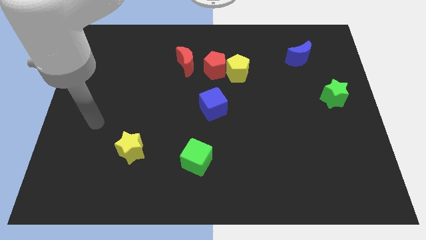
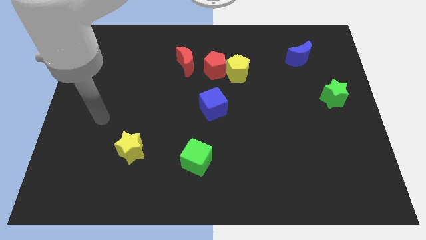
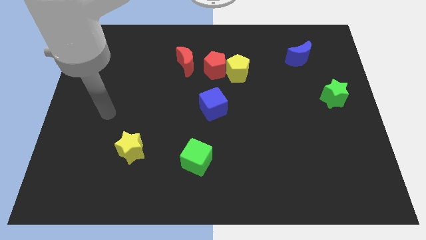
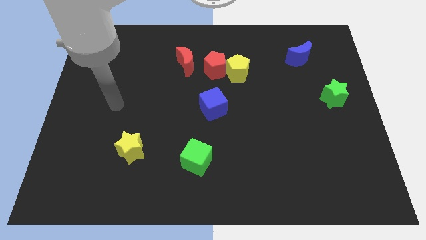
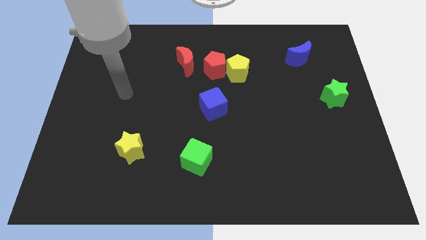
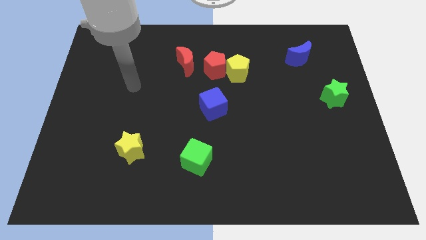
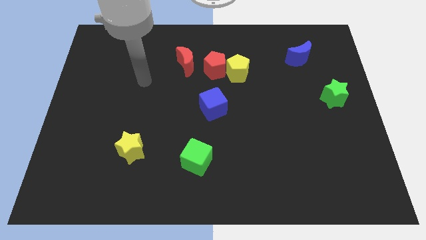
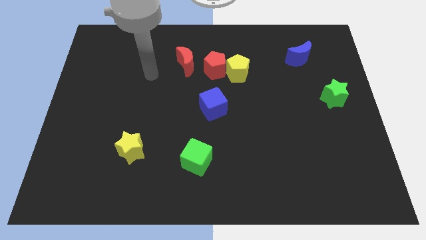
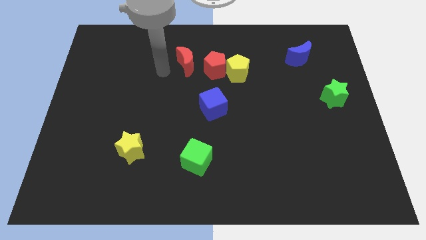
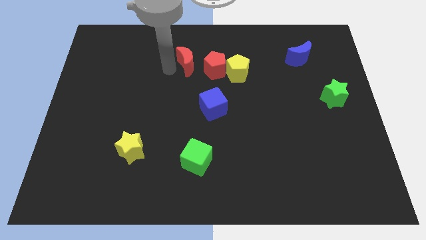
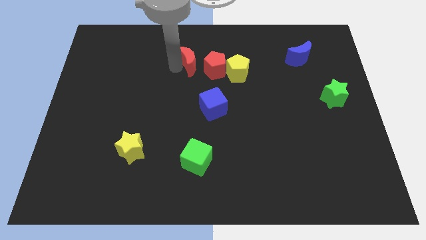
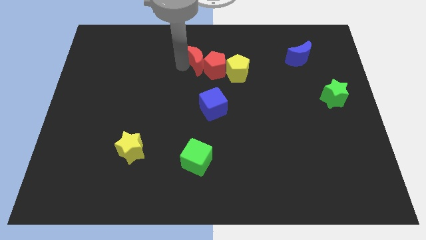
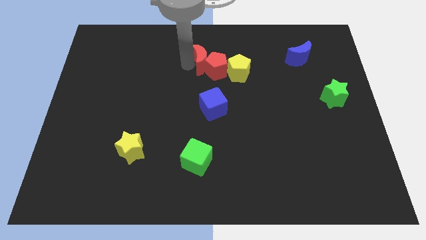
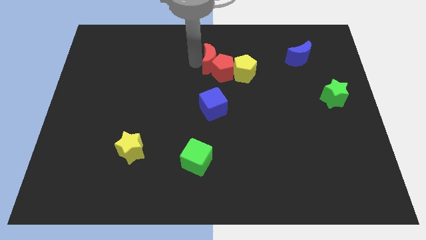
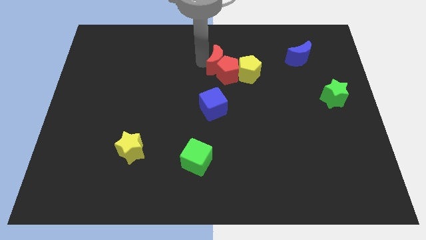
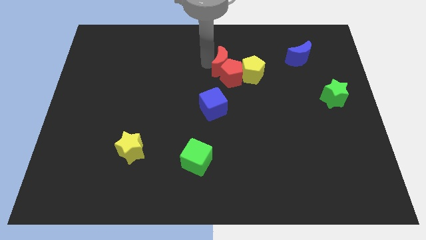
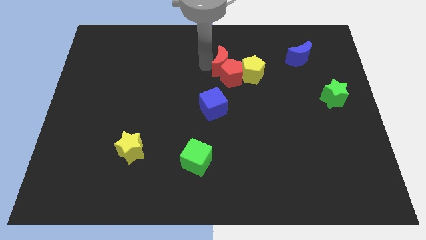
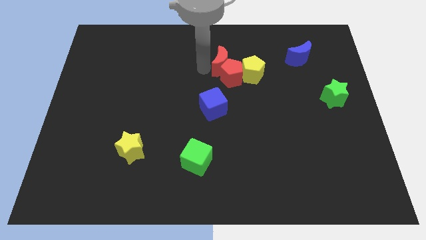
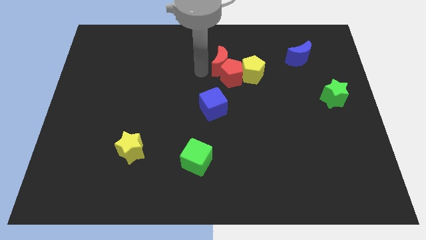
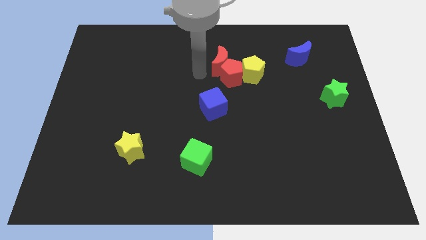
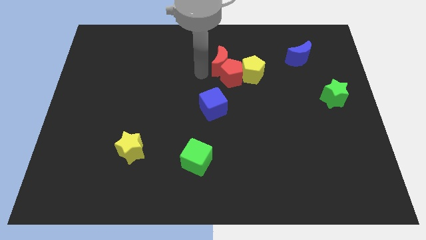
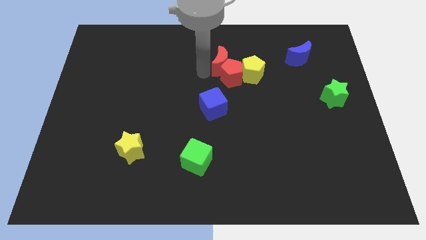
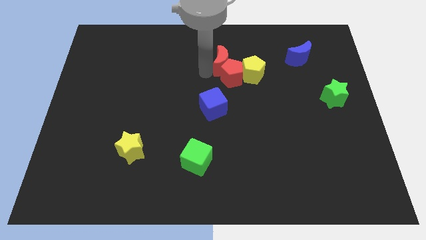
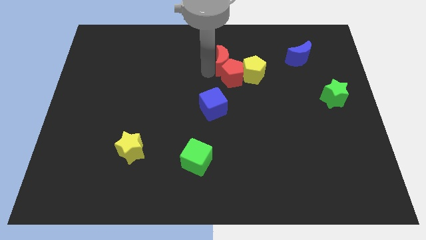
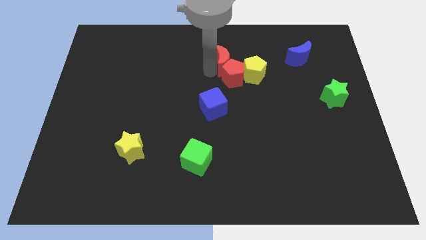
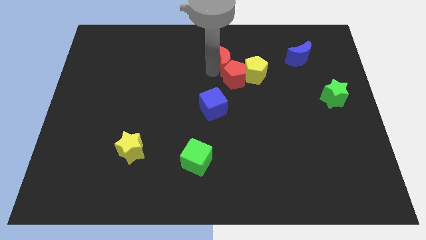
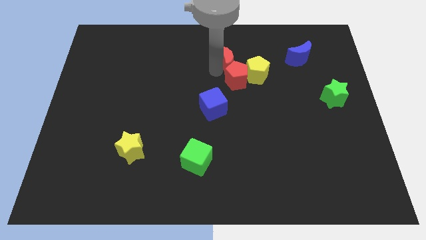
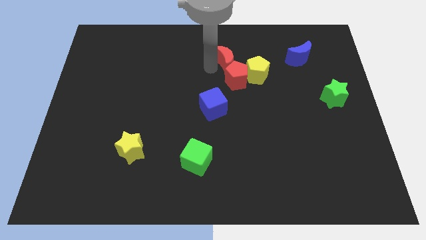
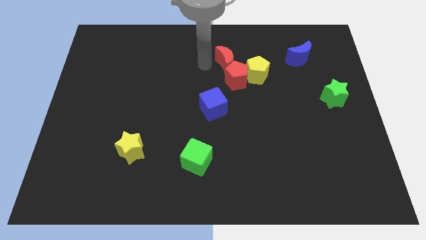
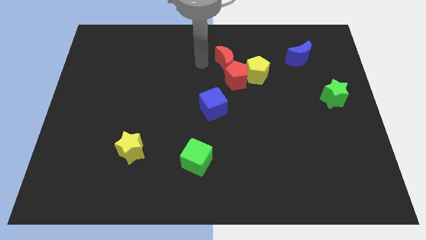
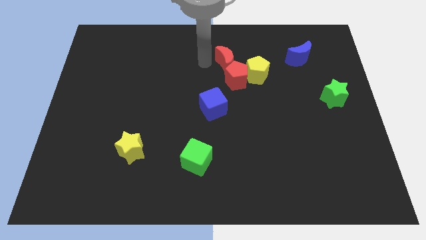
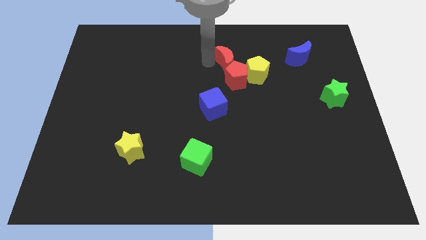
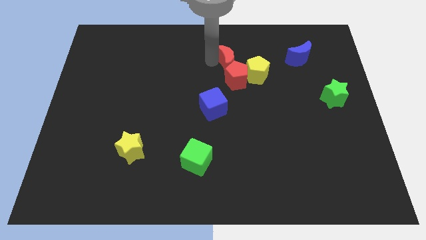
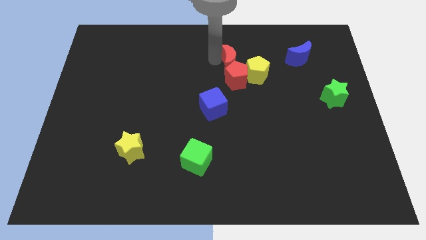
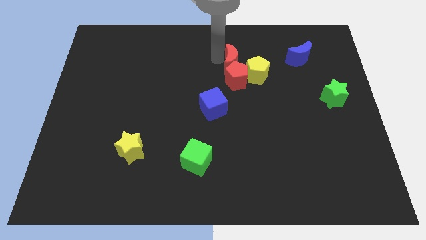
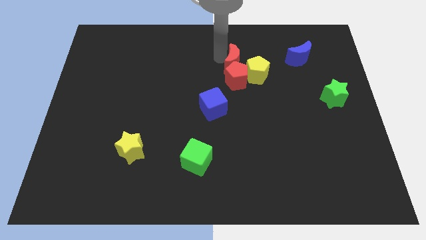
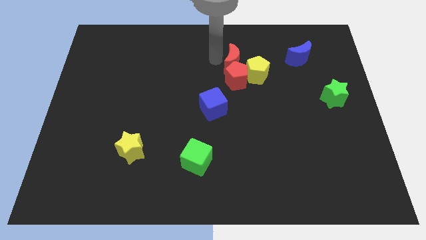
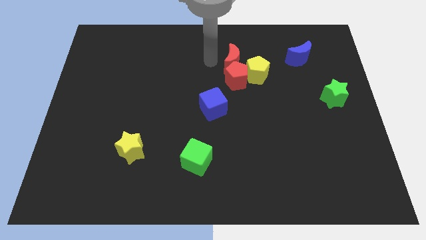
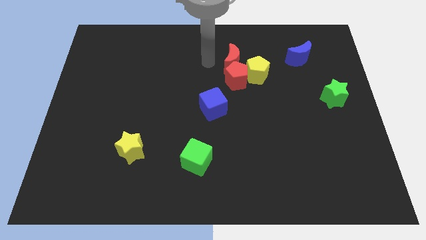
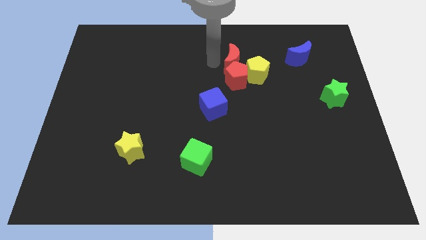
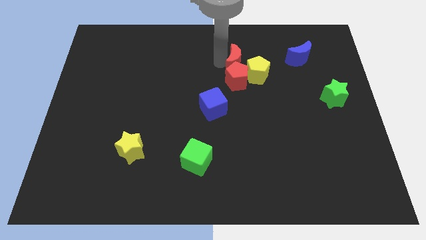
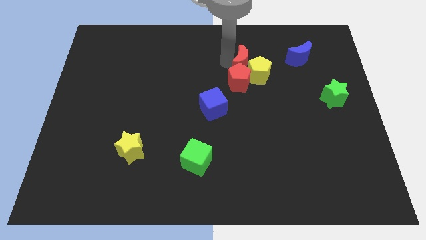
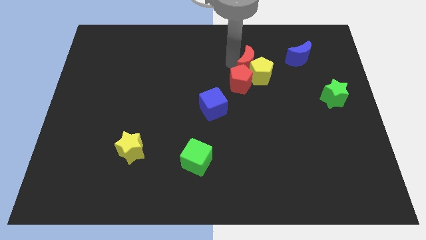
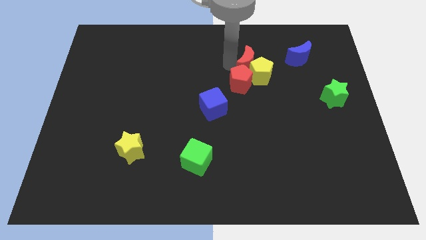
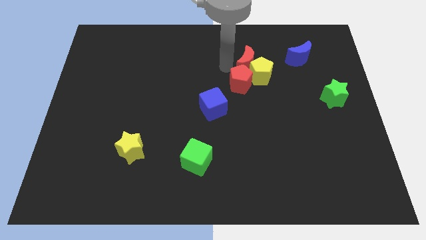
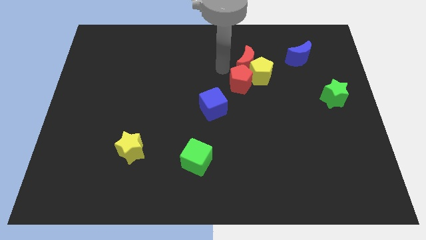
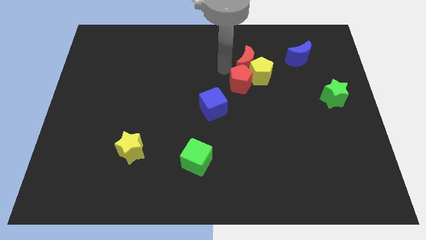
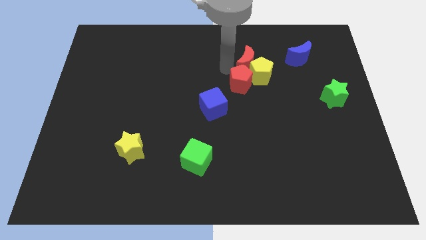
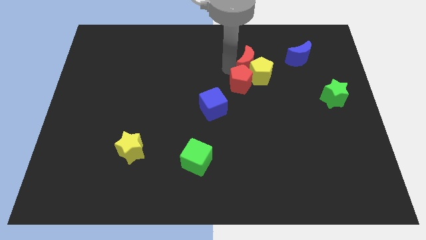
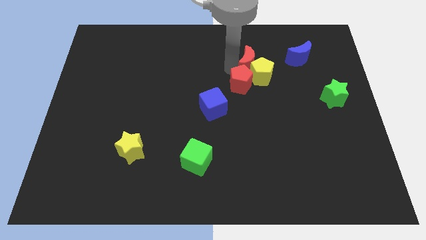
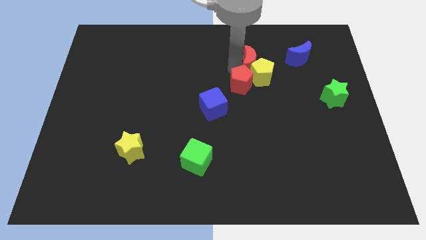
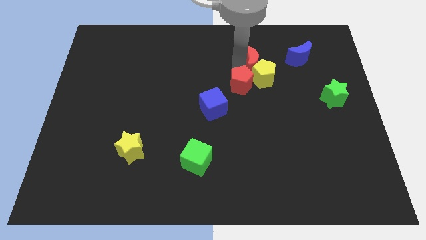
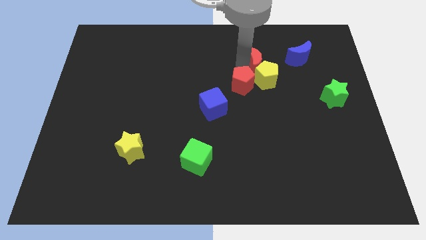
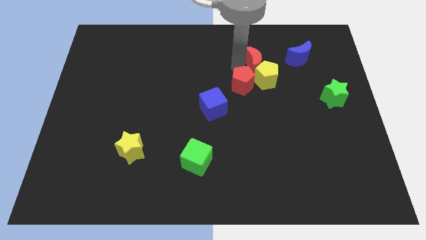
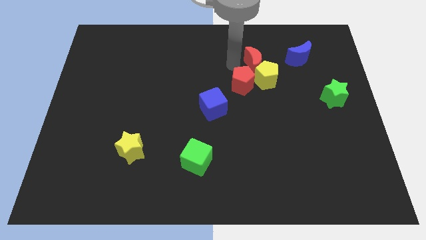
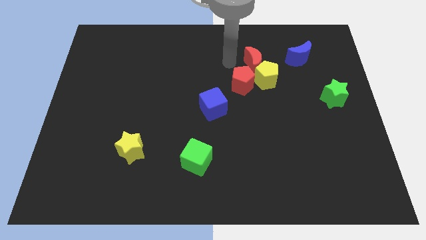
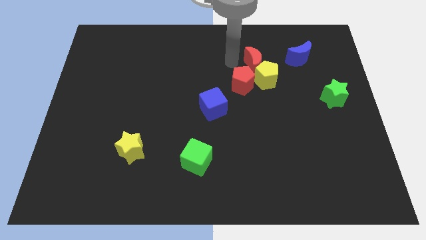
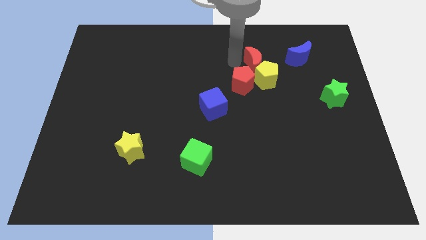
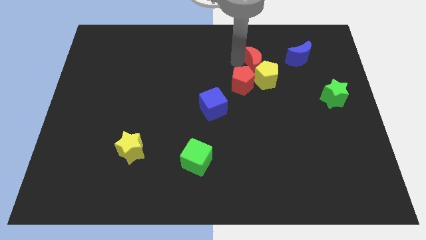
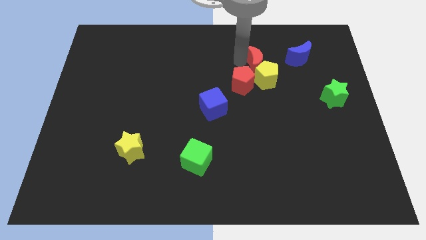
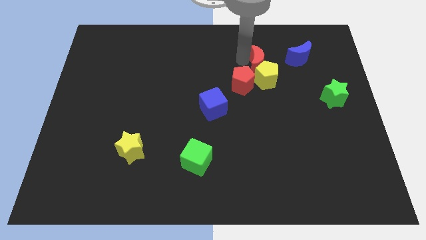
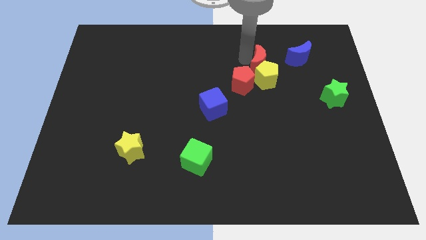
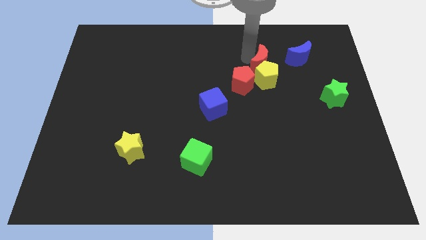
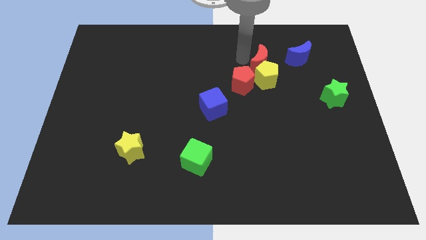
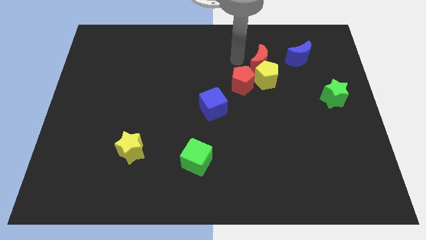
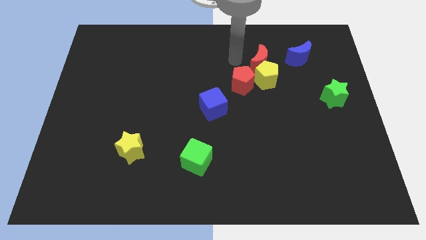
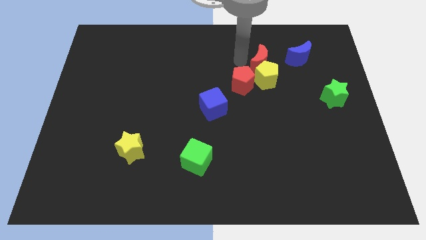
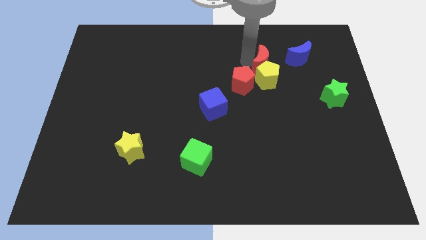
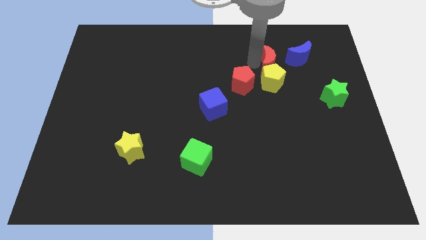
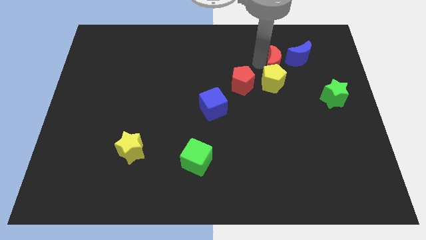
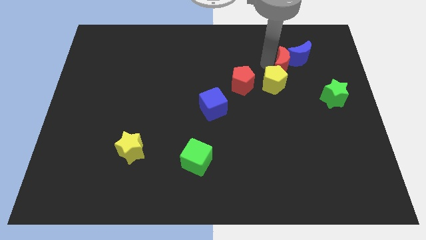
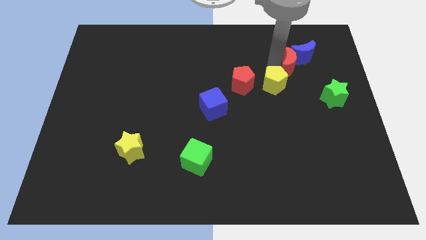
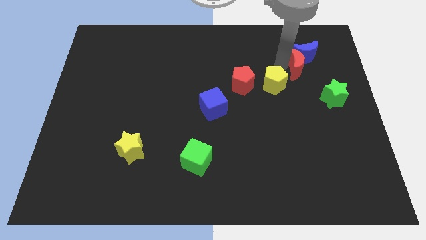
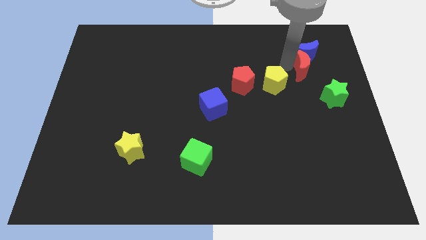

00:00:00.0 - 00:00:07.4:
push the red moon diagonally down and to the right of the blue moon

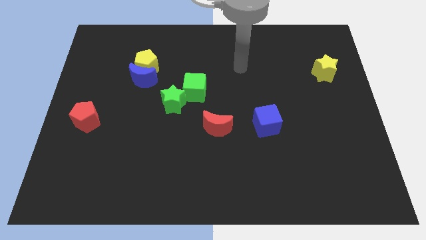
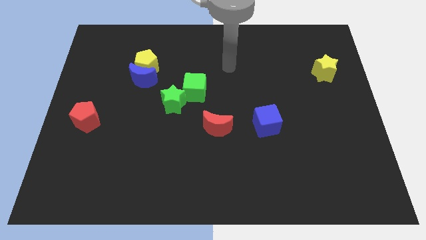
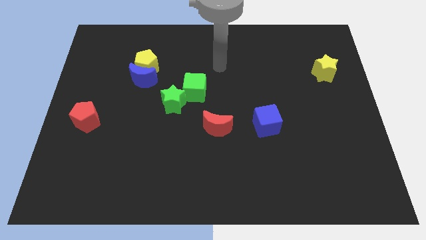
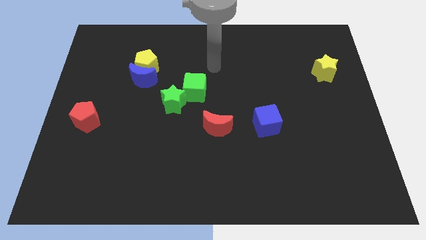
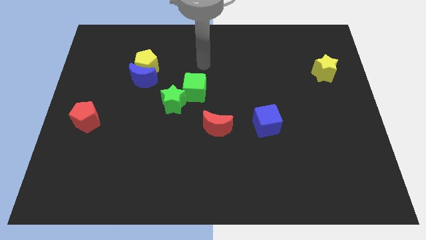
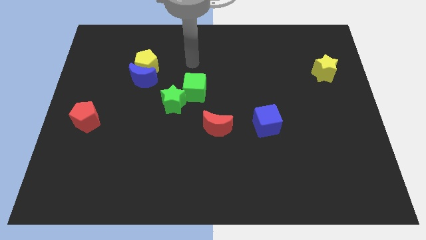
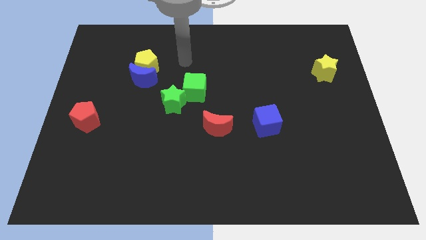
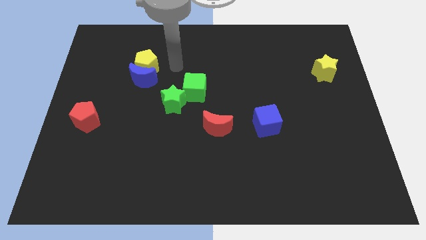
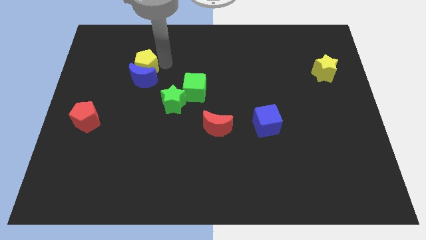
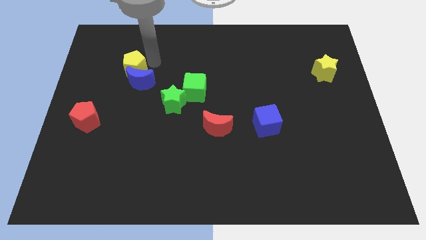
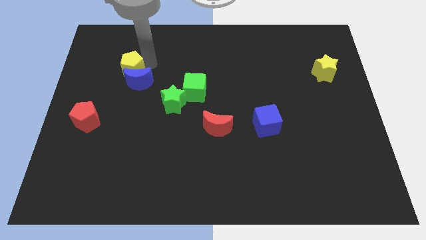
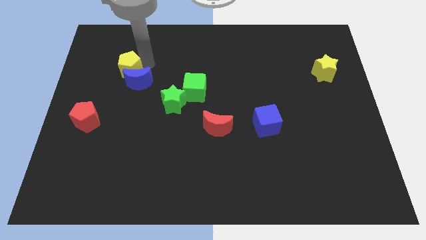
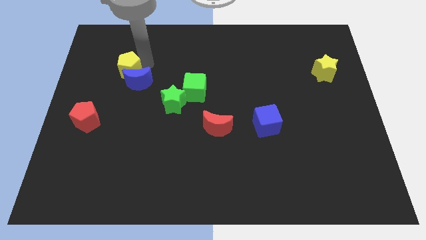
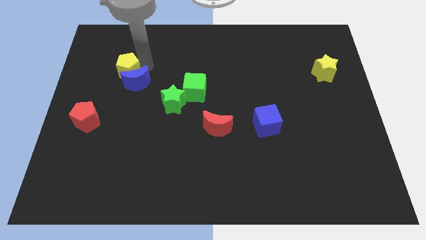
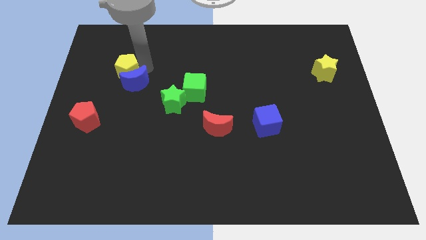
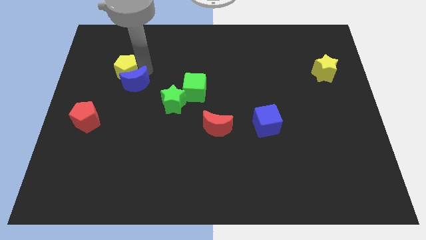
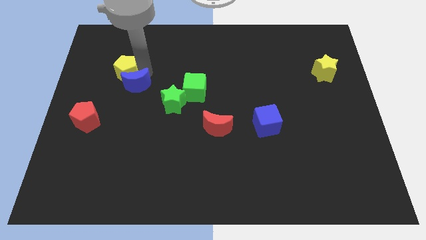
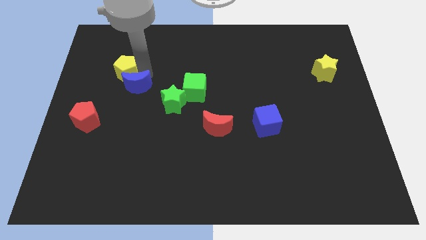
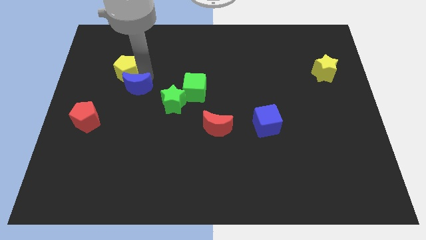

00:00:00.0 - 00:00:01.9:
put the blue moon just left of the green star
